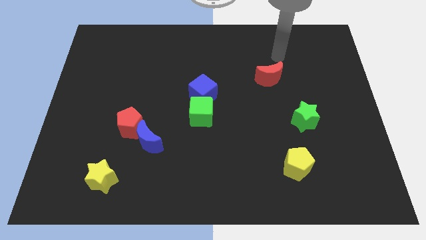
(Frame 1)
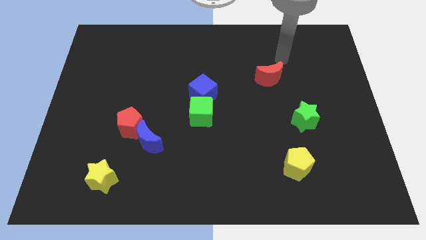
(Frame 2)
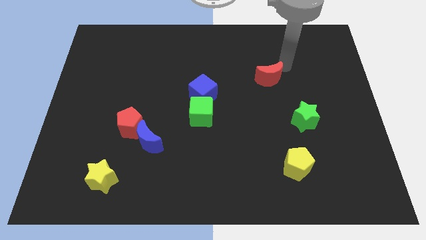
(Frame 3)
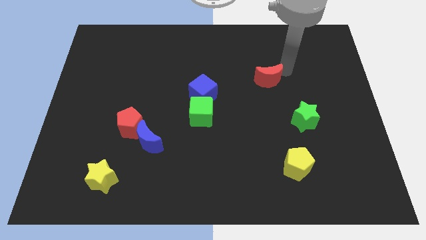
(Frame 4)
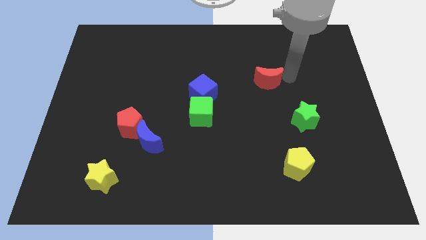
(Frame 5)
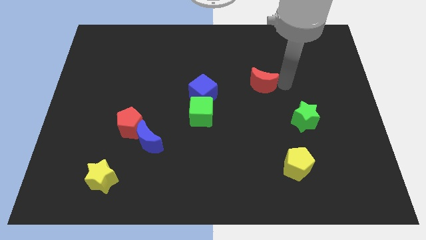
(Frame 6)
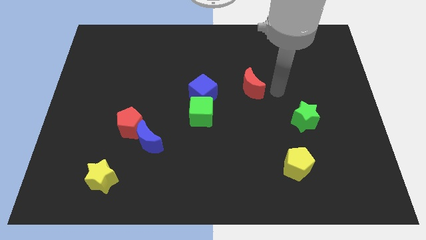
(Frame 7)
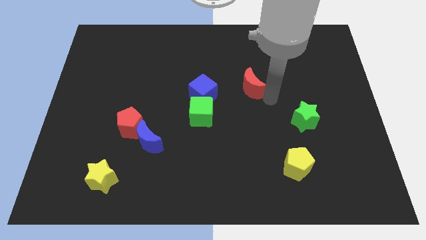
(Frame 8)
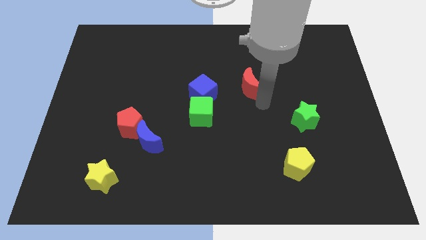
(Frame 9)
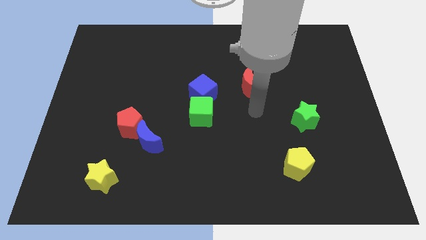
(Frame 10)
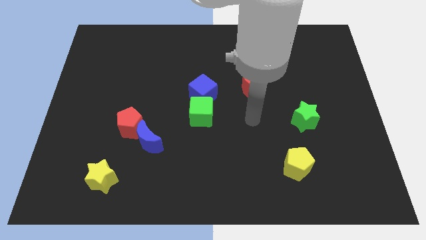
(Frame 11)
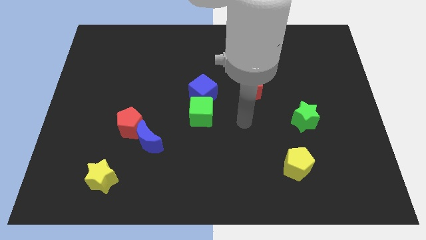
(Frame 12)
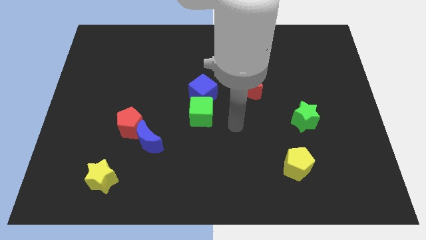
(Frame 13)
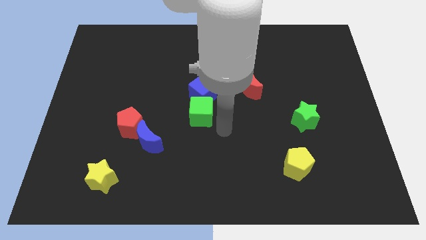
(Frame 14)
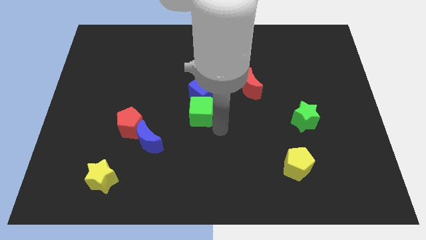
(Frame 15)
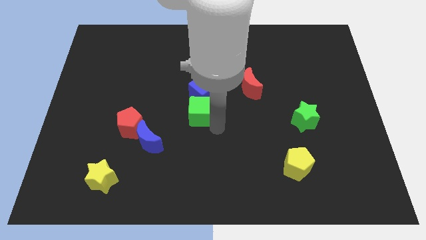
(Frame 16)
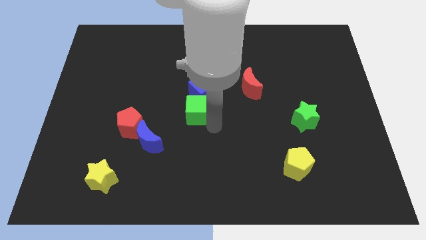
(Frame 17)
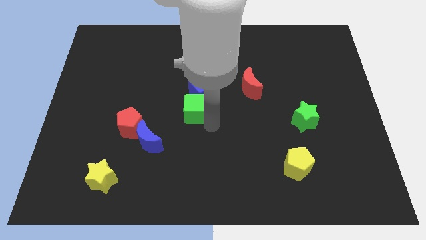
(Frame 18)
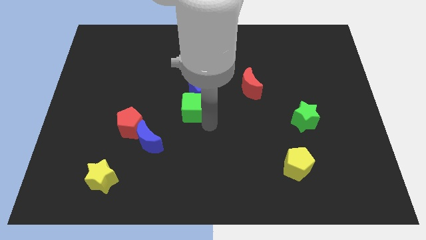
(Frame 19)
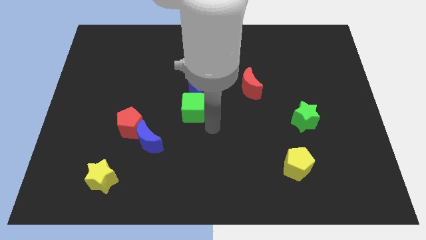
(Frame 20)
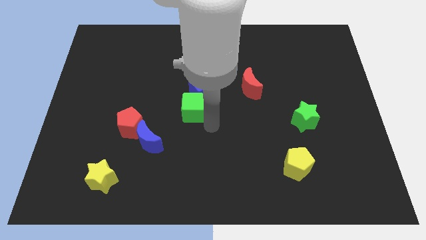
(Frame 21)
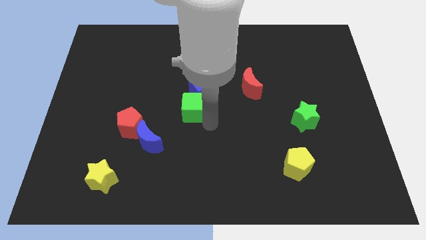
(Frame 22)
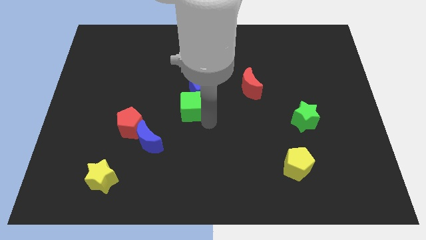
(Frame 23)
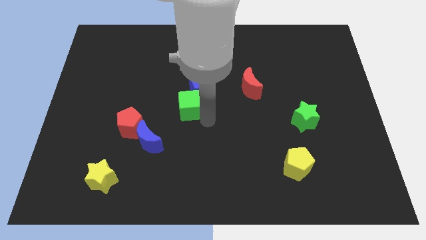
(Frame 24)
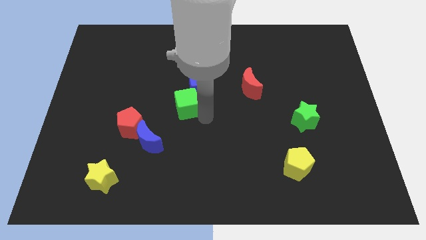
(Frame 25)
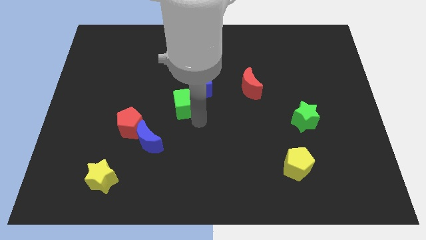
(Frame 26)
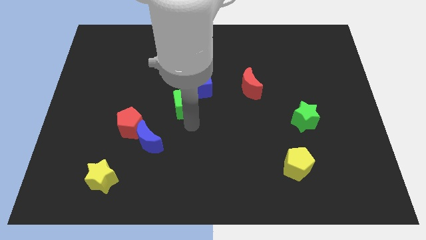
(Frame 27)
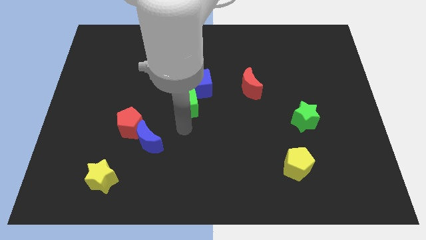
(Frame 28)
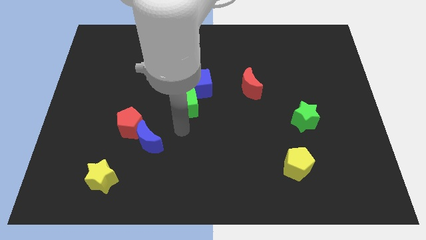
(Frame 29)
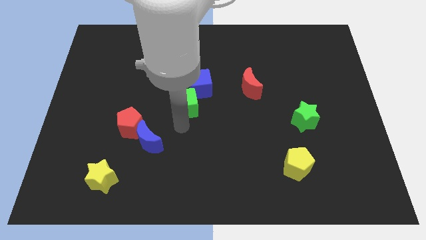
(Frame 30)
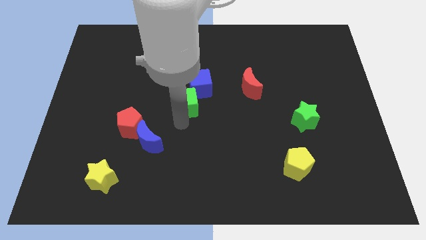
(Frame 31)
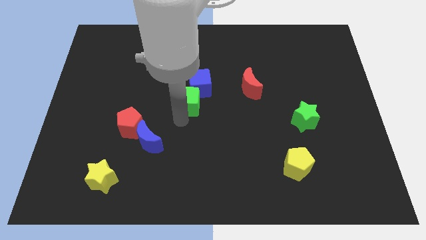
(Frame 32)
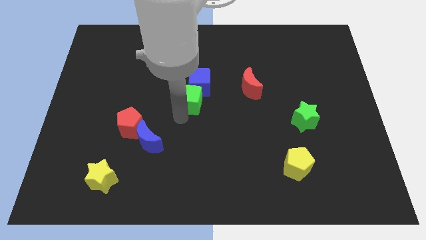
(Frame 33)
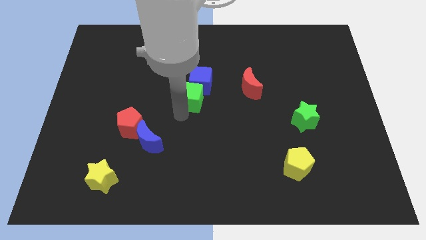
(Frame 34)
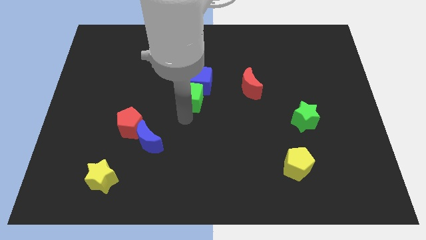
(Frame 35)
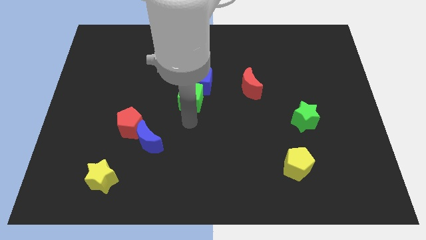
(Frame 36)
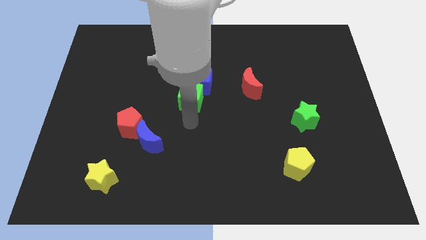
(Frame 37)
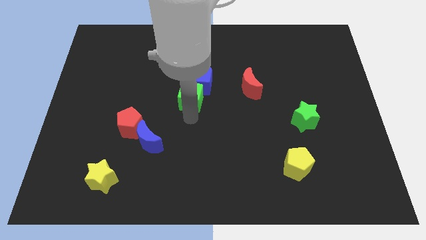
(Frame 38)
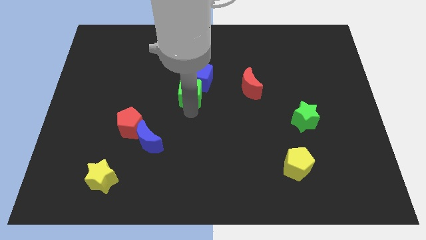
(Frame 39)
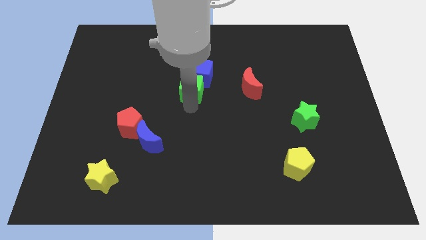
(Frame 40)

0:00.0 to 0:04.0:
slightly push the green cube upwards

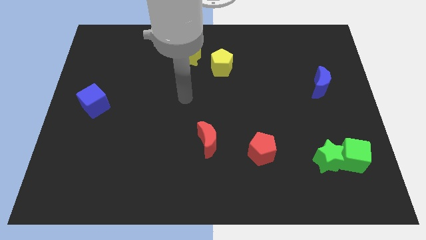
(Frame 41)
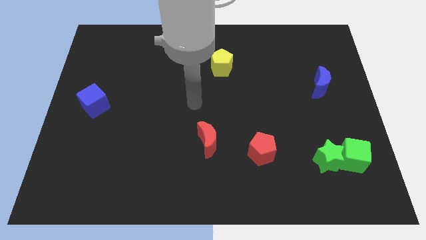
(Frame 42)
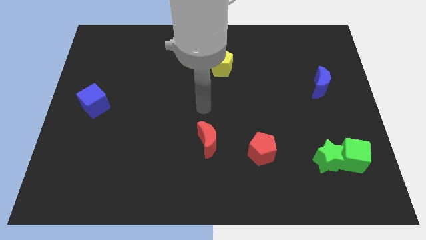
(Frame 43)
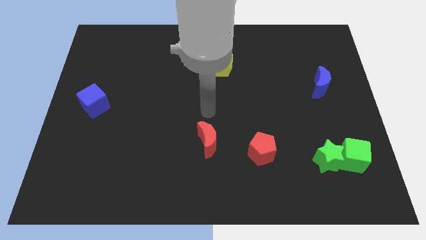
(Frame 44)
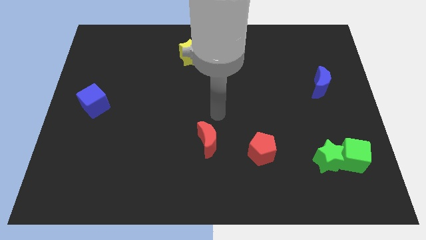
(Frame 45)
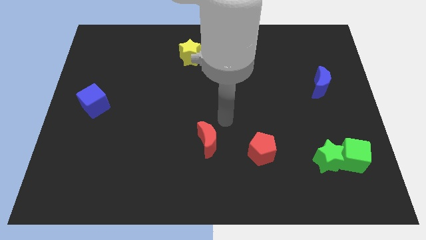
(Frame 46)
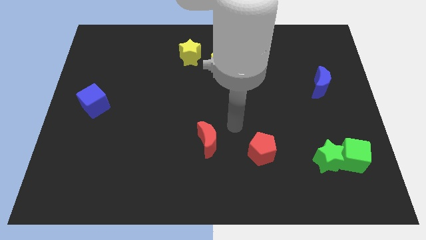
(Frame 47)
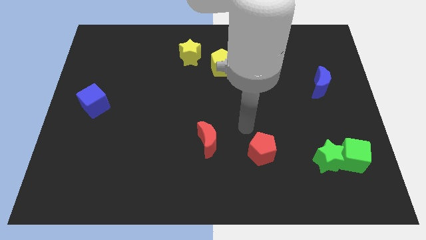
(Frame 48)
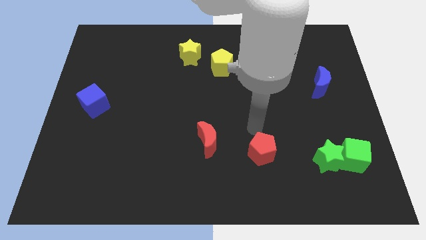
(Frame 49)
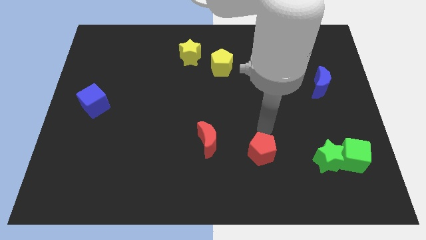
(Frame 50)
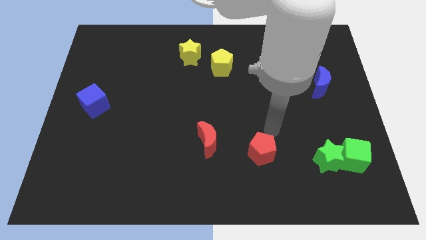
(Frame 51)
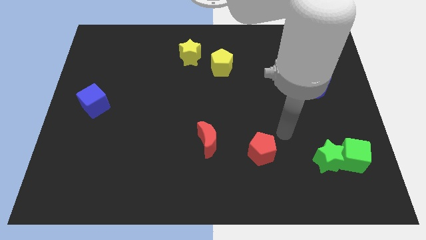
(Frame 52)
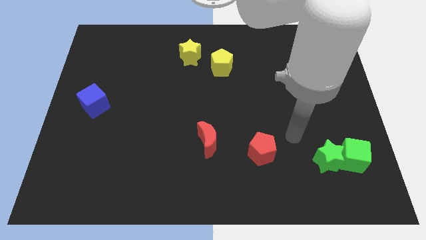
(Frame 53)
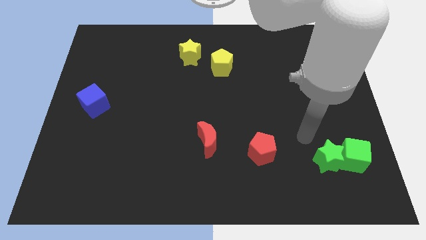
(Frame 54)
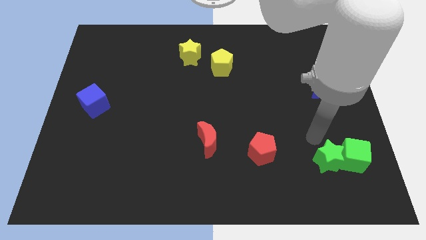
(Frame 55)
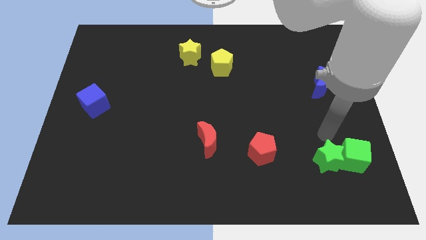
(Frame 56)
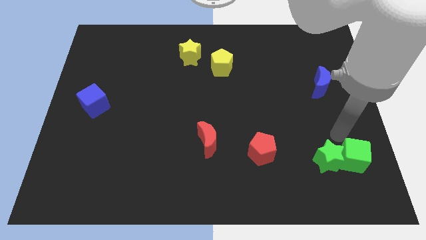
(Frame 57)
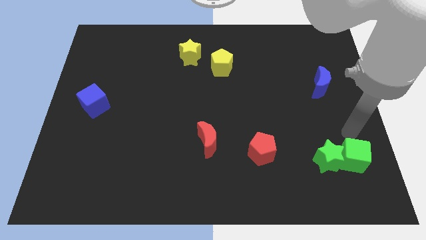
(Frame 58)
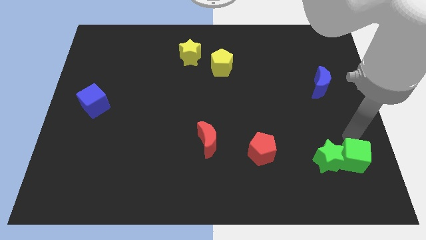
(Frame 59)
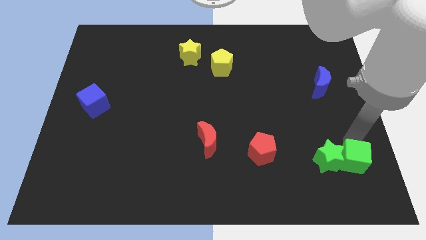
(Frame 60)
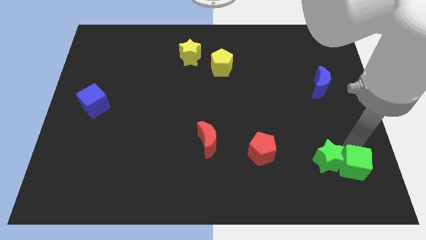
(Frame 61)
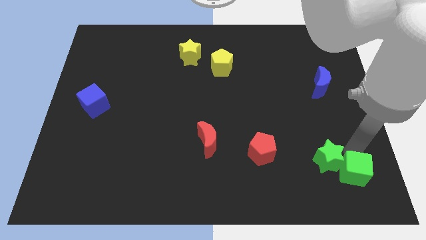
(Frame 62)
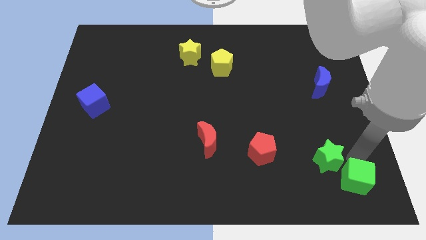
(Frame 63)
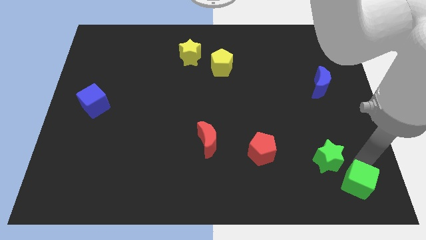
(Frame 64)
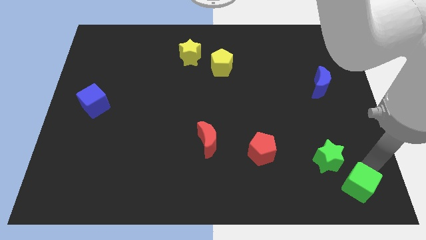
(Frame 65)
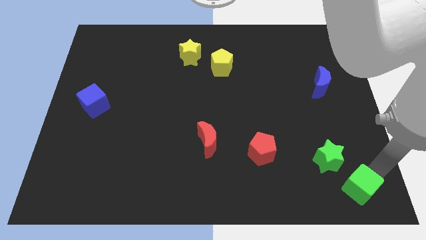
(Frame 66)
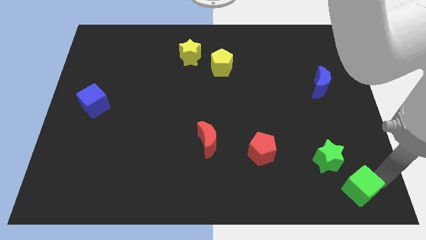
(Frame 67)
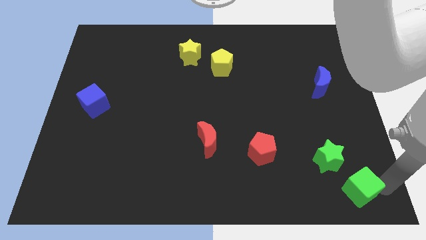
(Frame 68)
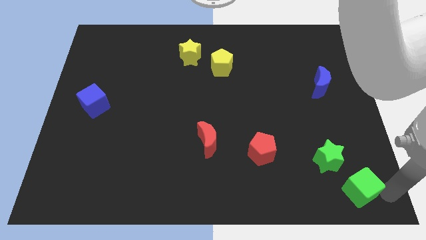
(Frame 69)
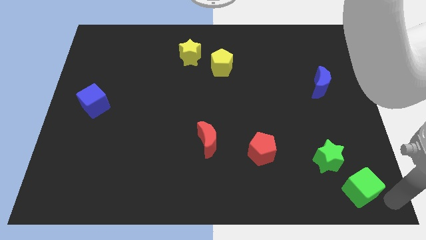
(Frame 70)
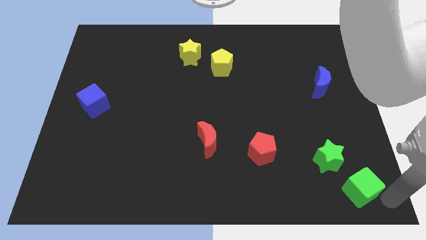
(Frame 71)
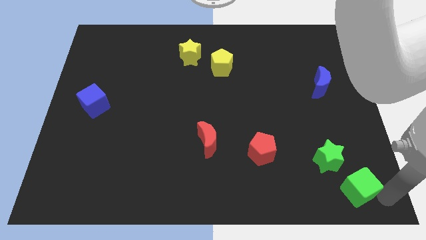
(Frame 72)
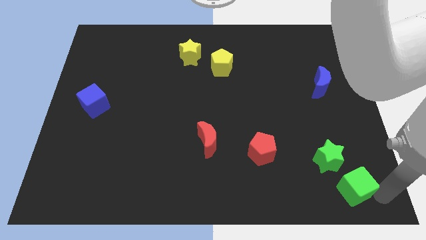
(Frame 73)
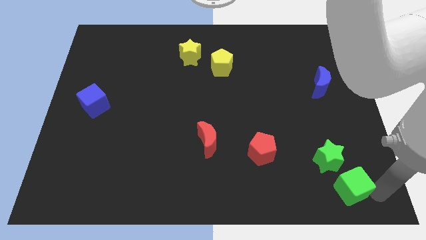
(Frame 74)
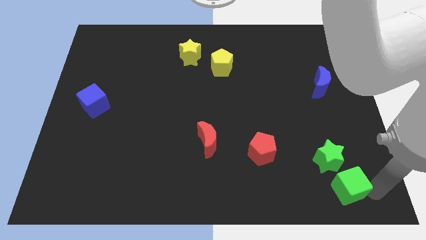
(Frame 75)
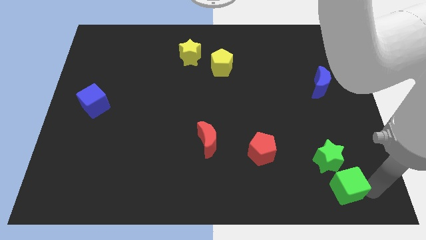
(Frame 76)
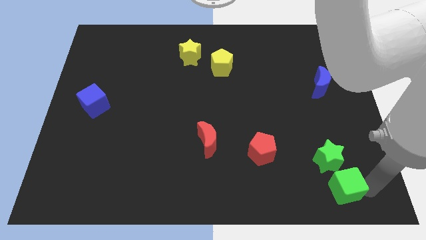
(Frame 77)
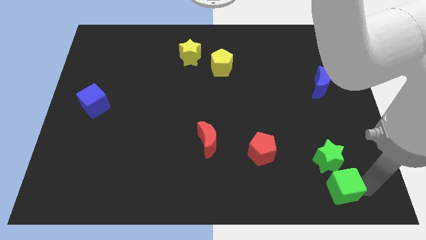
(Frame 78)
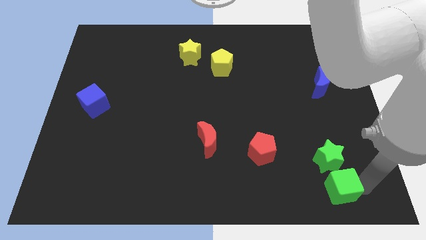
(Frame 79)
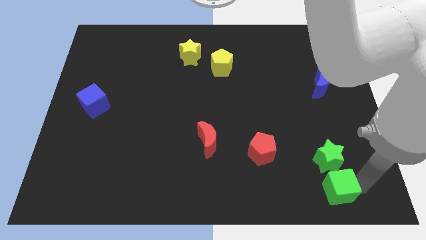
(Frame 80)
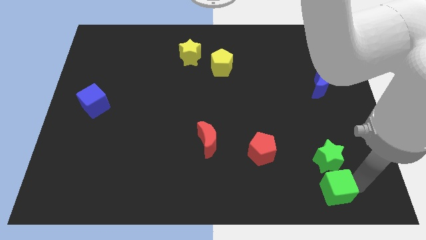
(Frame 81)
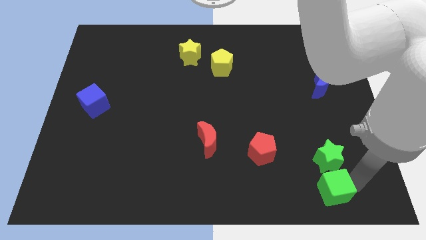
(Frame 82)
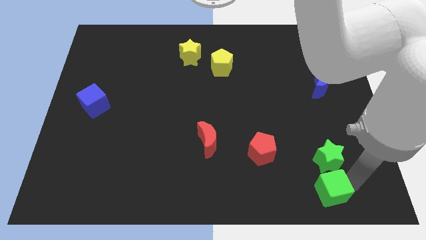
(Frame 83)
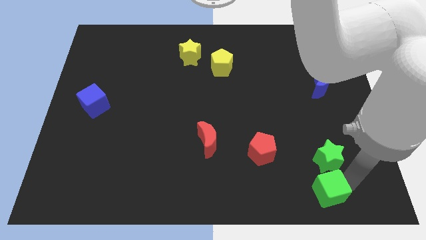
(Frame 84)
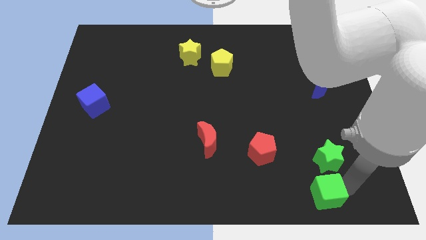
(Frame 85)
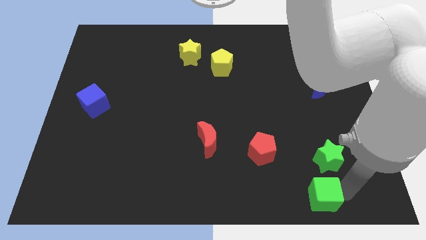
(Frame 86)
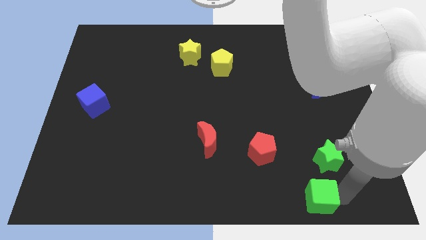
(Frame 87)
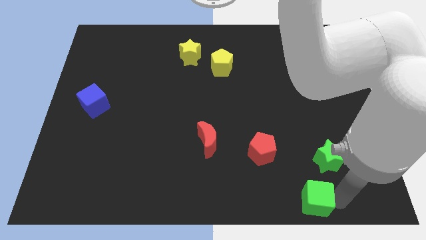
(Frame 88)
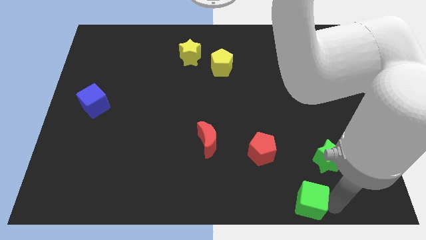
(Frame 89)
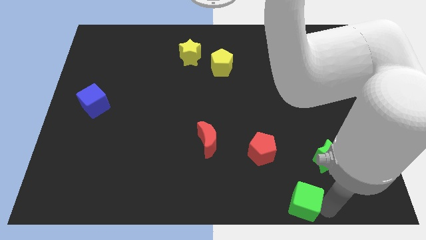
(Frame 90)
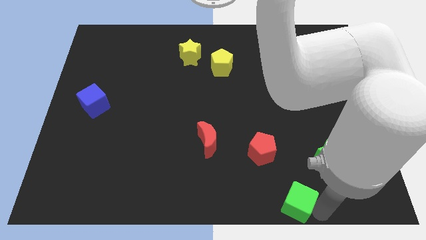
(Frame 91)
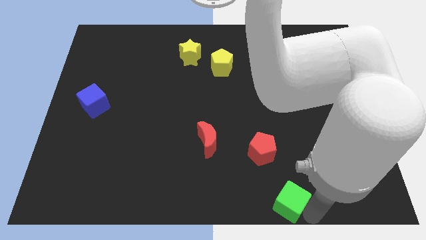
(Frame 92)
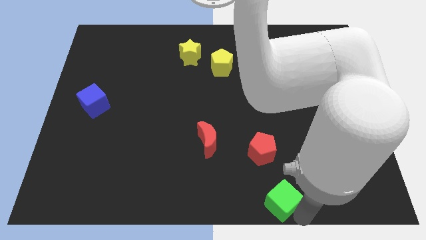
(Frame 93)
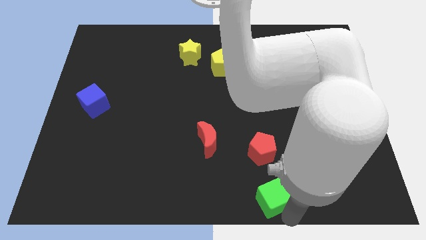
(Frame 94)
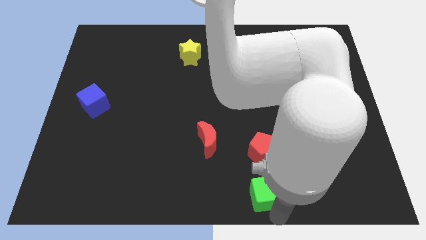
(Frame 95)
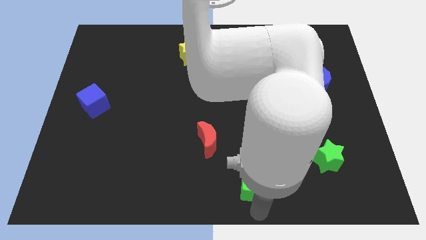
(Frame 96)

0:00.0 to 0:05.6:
push the green cube left
